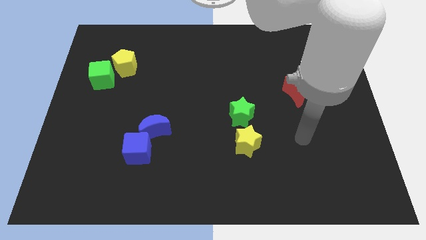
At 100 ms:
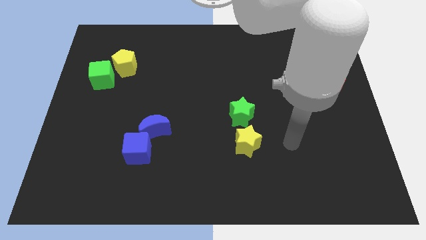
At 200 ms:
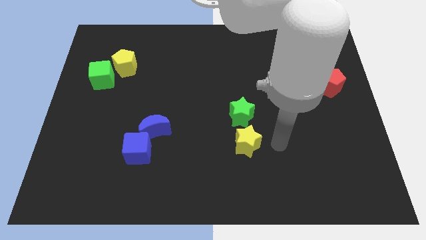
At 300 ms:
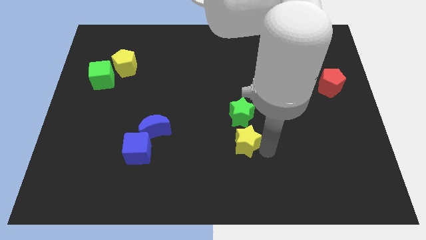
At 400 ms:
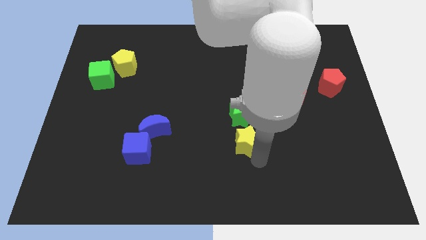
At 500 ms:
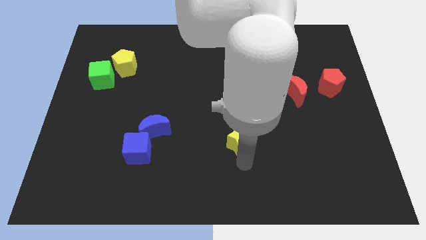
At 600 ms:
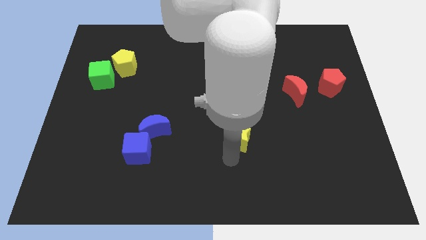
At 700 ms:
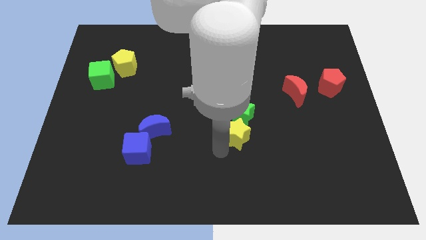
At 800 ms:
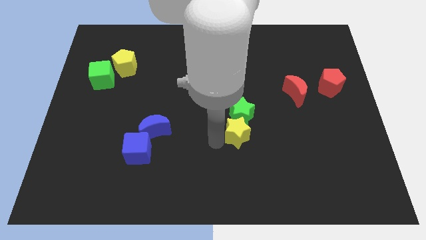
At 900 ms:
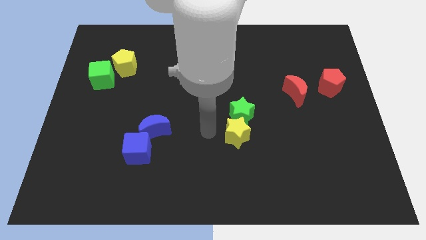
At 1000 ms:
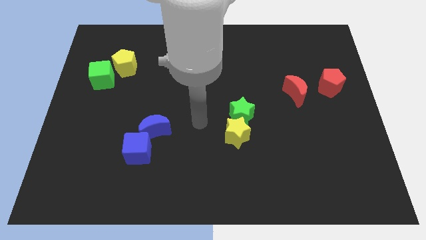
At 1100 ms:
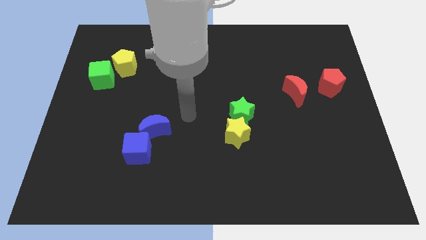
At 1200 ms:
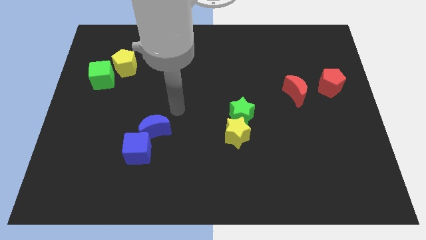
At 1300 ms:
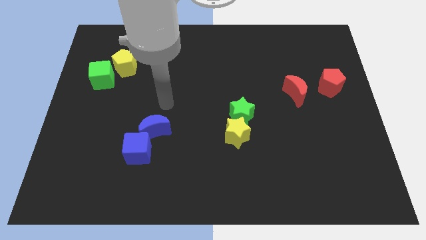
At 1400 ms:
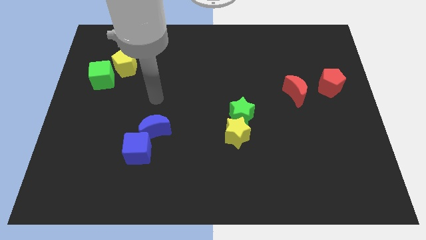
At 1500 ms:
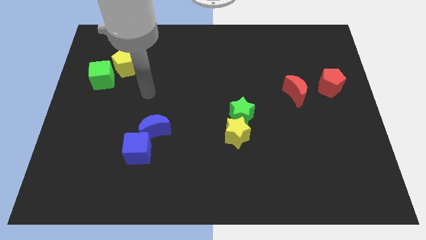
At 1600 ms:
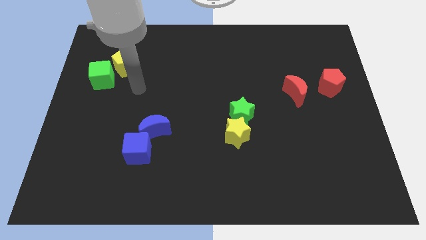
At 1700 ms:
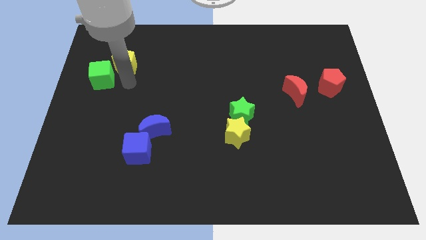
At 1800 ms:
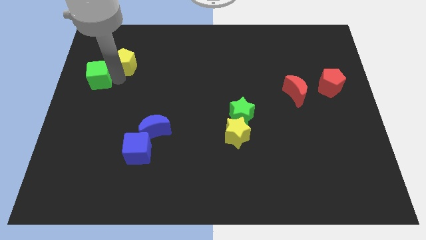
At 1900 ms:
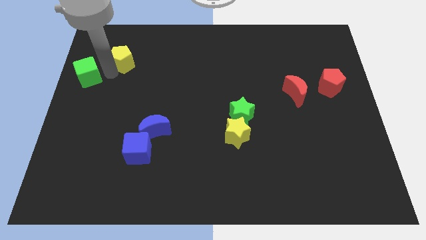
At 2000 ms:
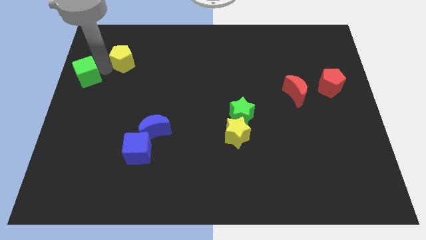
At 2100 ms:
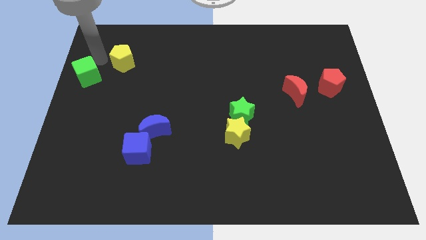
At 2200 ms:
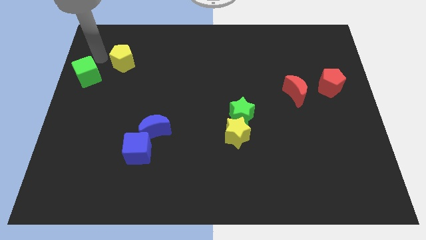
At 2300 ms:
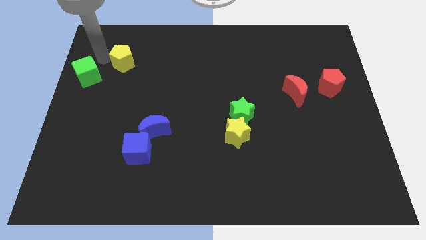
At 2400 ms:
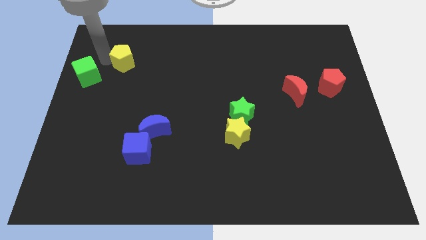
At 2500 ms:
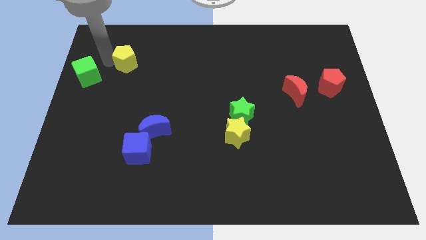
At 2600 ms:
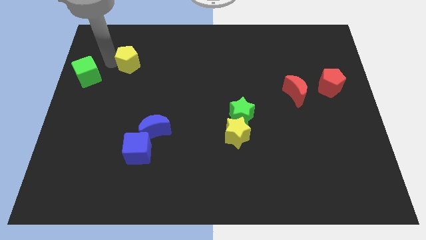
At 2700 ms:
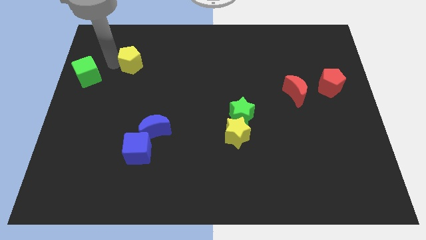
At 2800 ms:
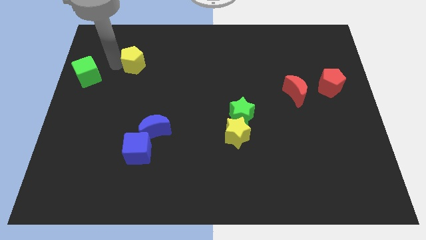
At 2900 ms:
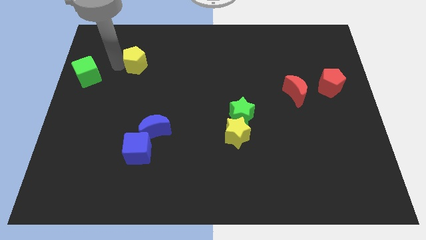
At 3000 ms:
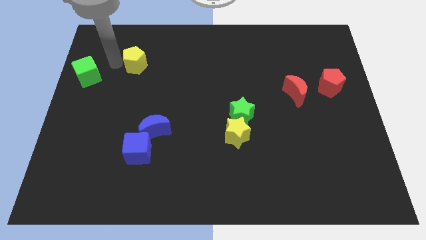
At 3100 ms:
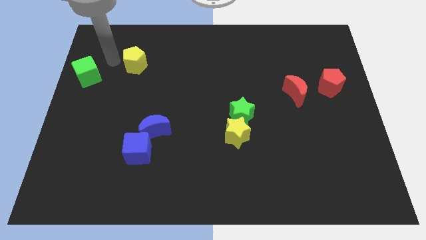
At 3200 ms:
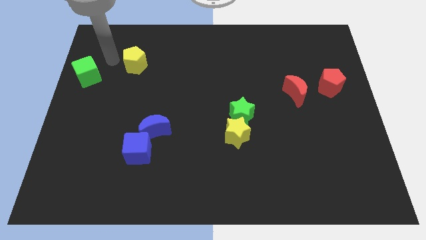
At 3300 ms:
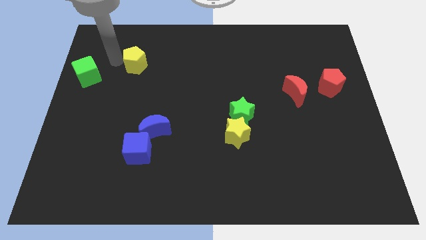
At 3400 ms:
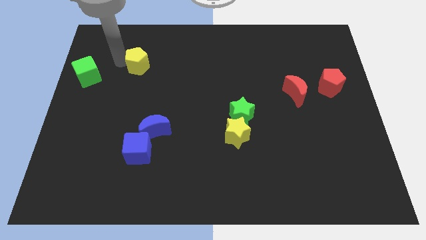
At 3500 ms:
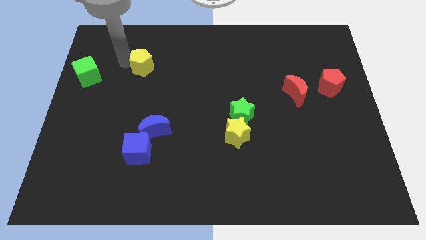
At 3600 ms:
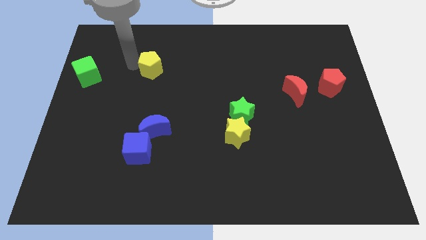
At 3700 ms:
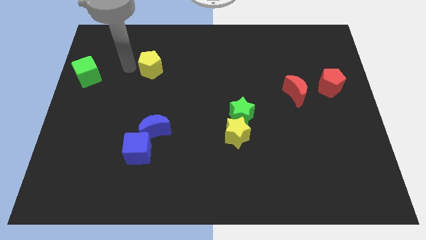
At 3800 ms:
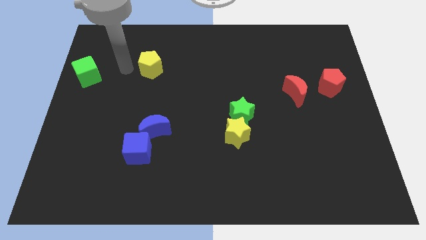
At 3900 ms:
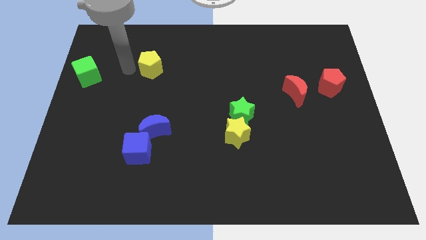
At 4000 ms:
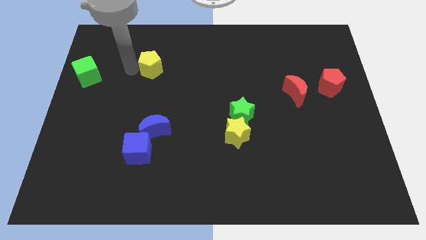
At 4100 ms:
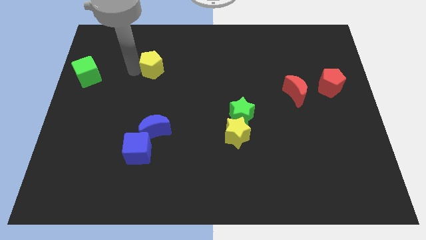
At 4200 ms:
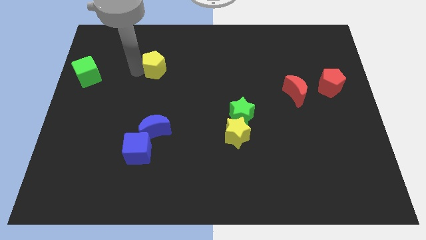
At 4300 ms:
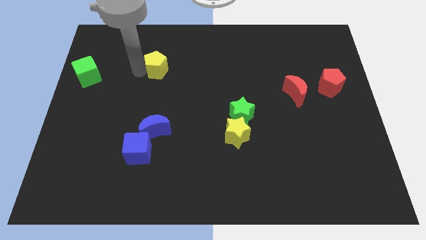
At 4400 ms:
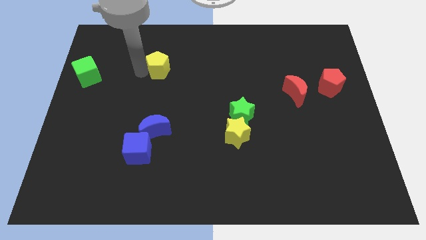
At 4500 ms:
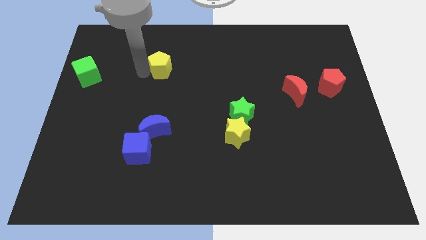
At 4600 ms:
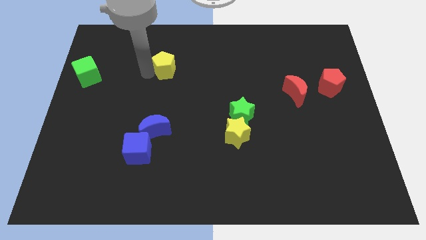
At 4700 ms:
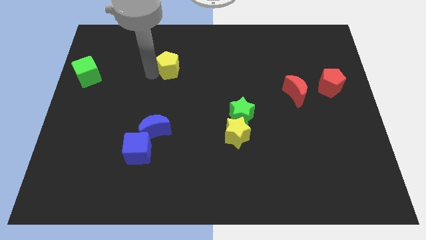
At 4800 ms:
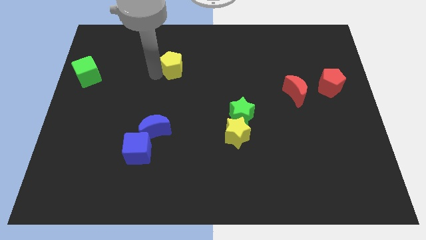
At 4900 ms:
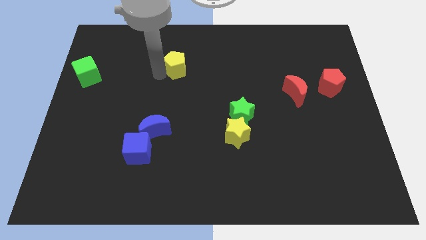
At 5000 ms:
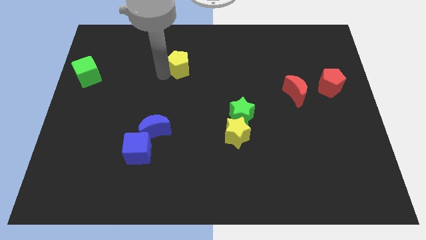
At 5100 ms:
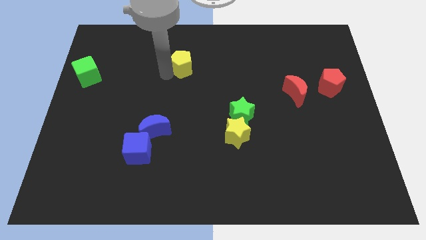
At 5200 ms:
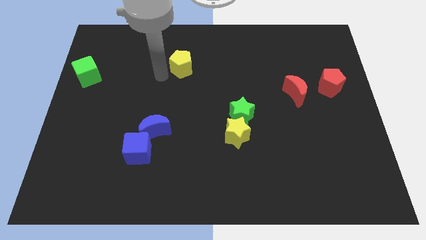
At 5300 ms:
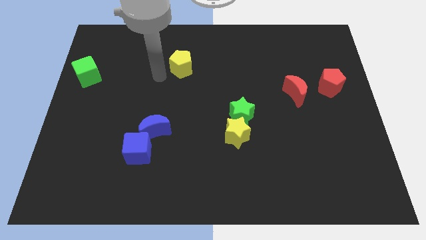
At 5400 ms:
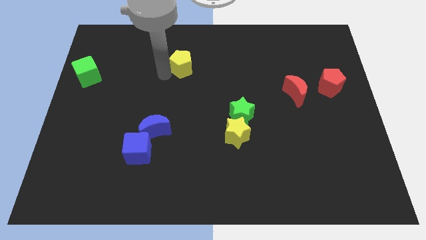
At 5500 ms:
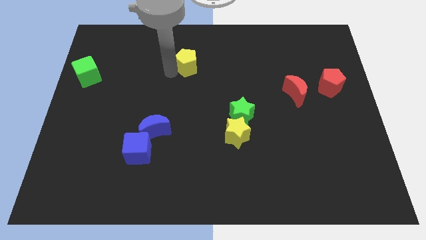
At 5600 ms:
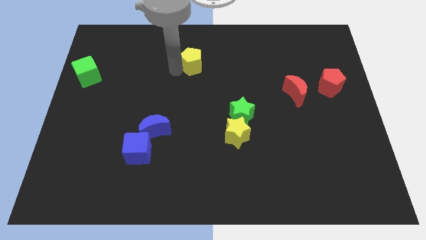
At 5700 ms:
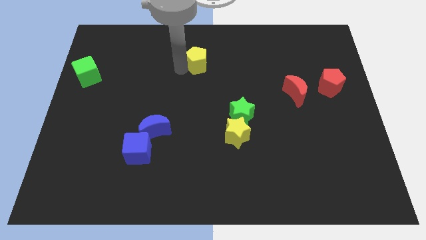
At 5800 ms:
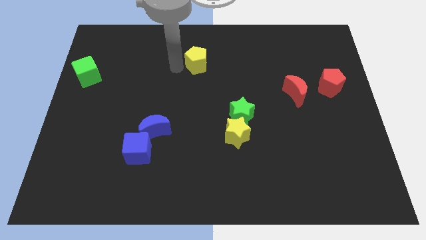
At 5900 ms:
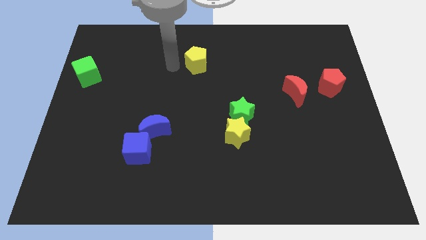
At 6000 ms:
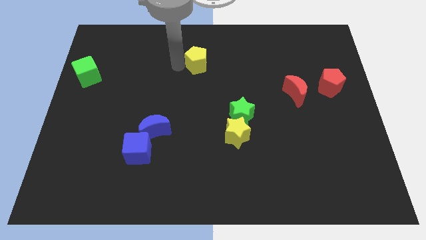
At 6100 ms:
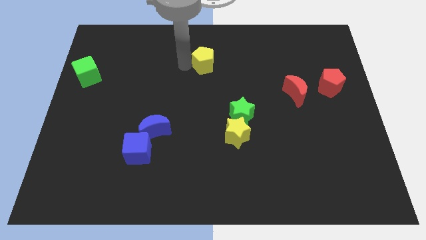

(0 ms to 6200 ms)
push the yellow pentagon to the right

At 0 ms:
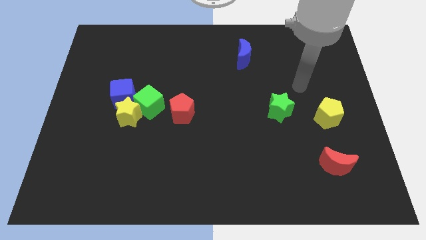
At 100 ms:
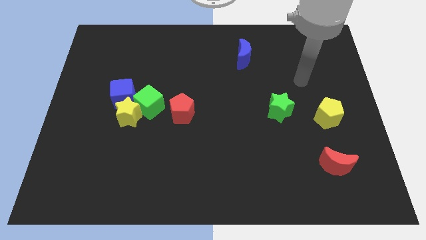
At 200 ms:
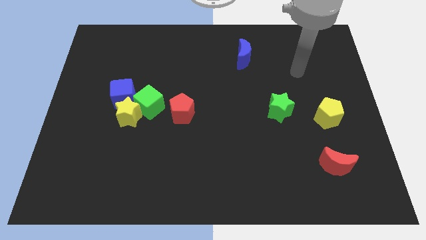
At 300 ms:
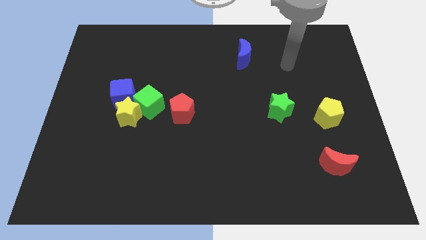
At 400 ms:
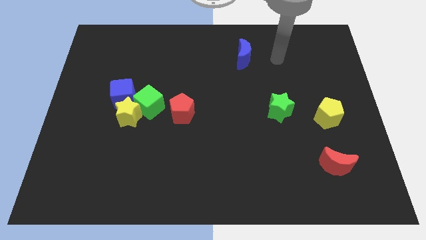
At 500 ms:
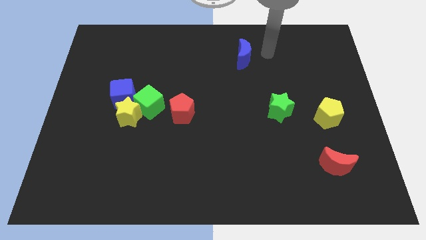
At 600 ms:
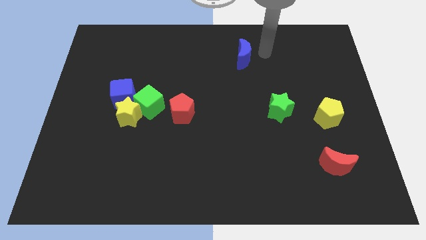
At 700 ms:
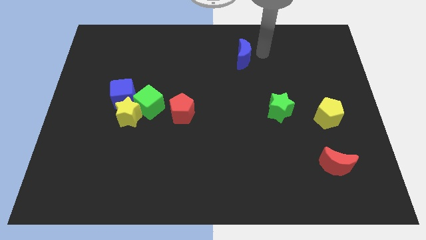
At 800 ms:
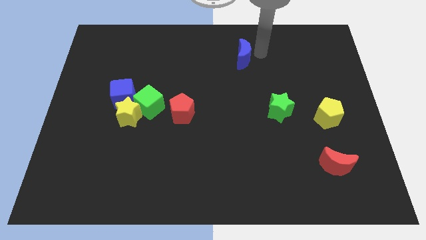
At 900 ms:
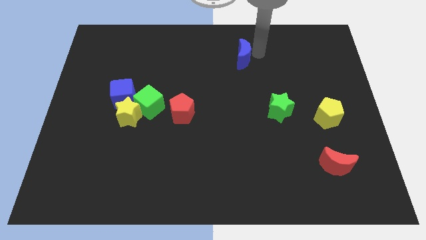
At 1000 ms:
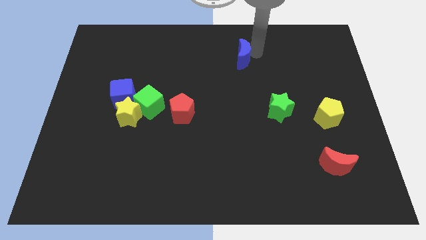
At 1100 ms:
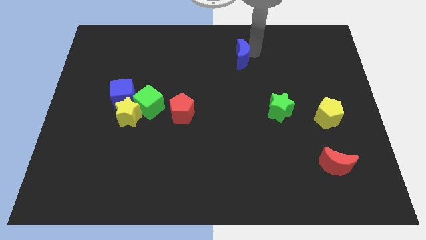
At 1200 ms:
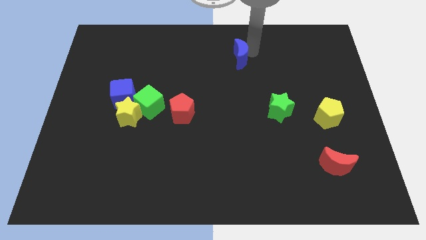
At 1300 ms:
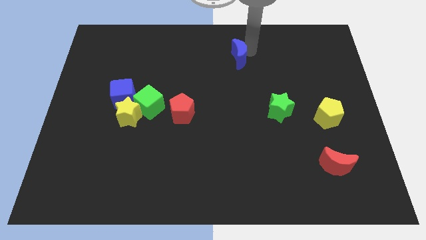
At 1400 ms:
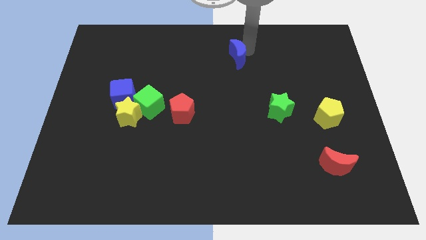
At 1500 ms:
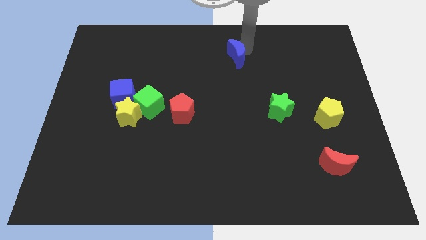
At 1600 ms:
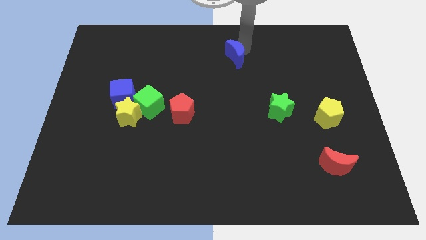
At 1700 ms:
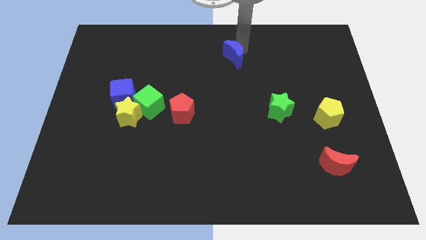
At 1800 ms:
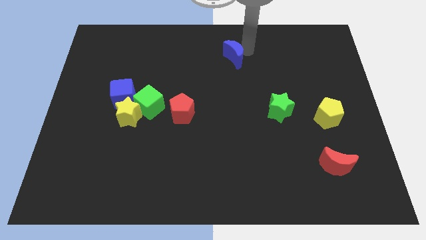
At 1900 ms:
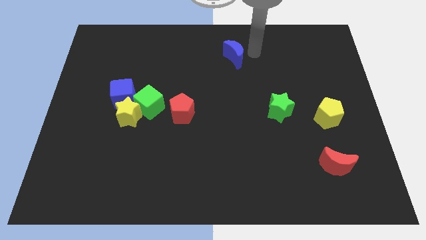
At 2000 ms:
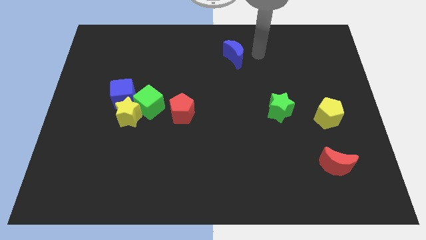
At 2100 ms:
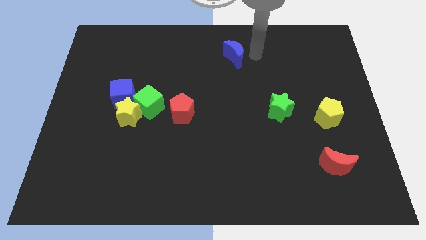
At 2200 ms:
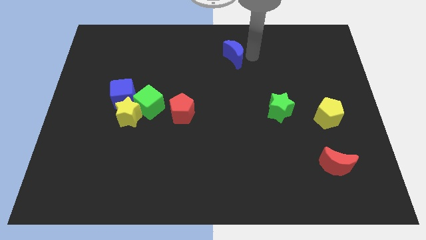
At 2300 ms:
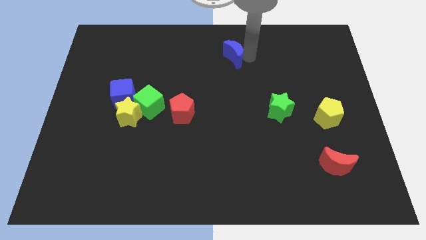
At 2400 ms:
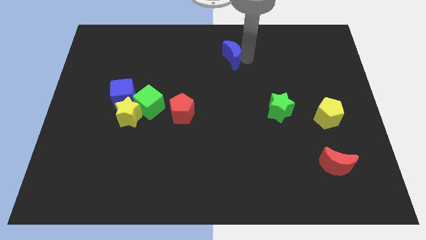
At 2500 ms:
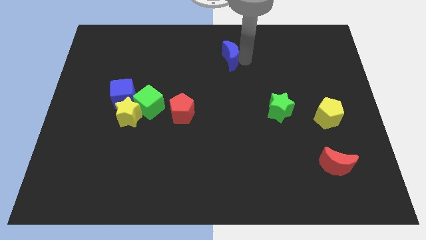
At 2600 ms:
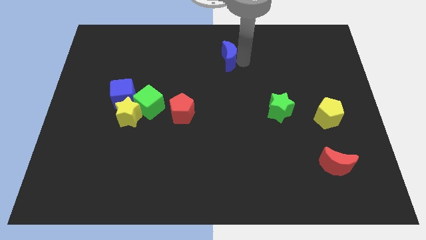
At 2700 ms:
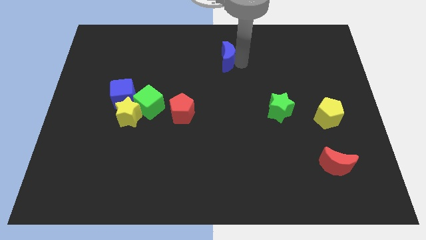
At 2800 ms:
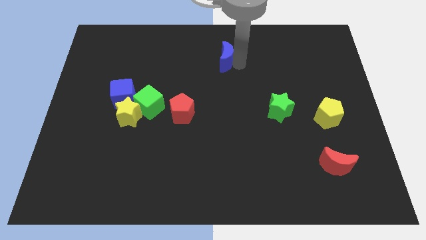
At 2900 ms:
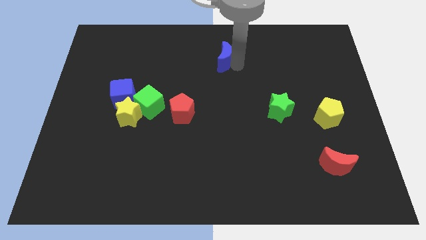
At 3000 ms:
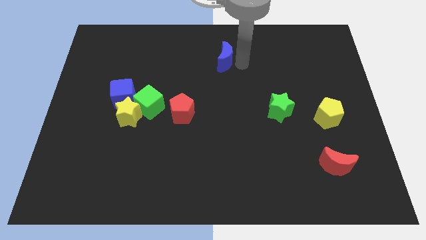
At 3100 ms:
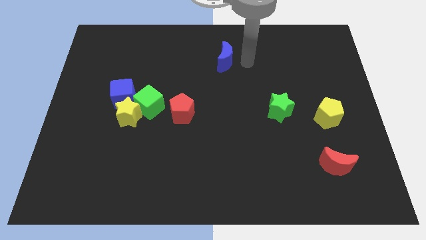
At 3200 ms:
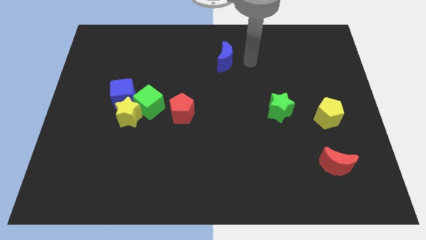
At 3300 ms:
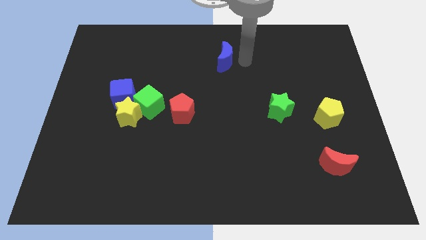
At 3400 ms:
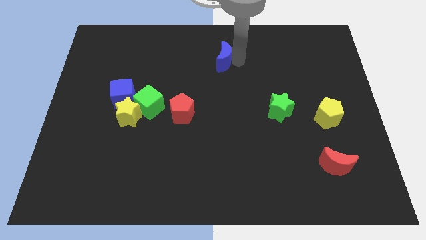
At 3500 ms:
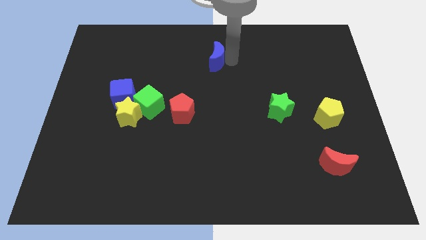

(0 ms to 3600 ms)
slide the blue moon to the left a bit
